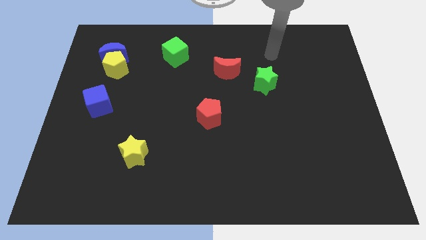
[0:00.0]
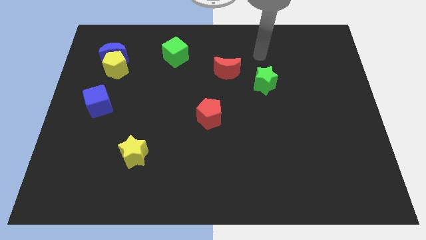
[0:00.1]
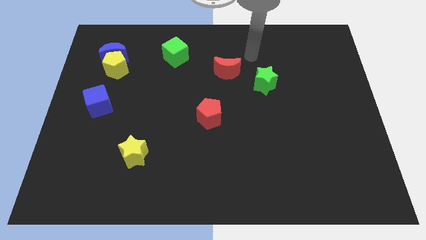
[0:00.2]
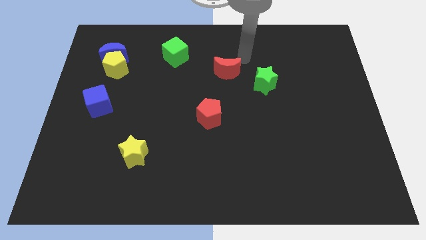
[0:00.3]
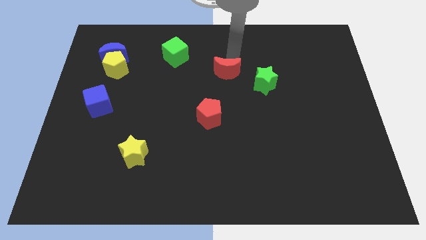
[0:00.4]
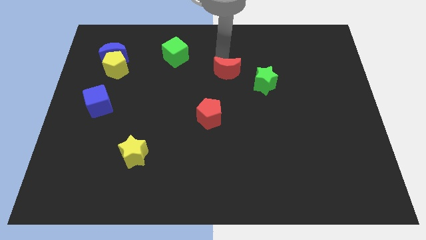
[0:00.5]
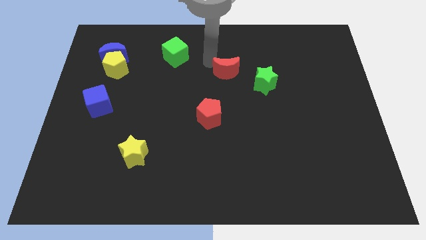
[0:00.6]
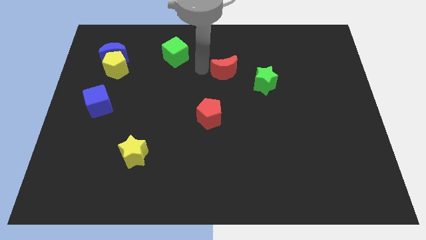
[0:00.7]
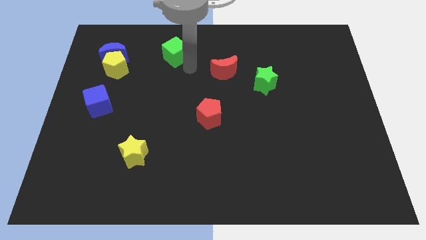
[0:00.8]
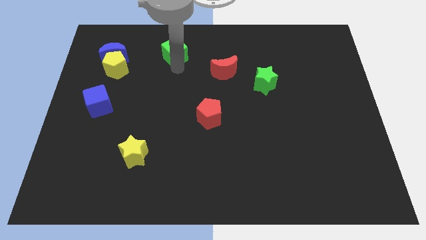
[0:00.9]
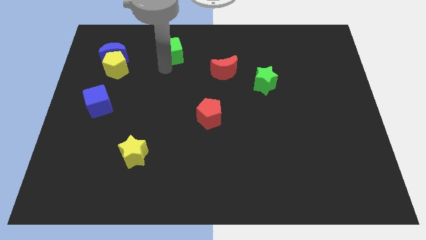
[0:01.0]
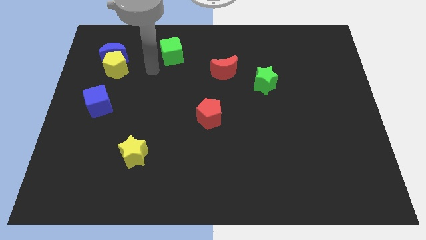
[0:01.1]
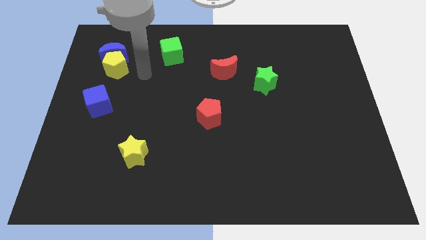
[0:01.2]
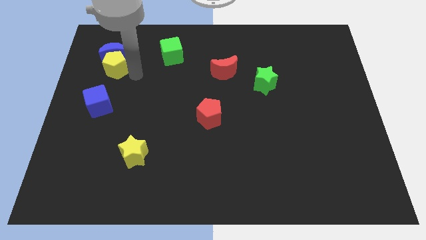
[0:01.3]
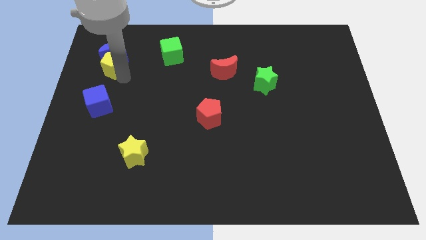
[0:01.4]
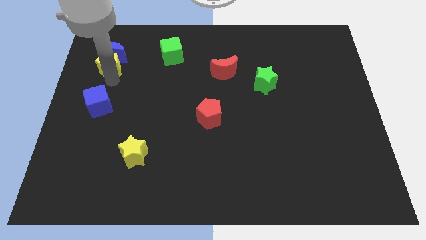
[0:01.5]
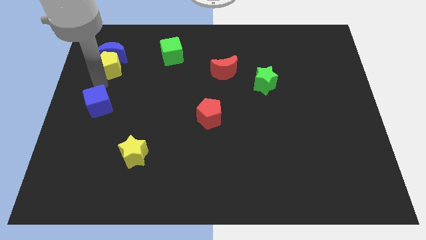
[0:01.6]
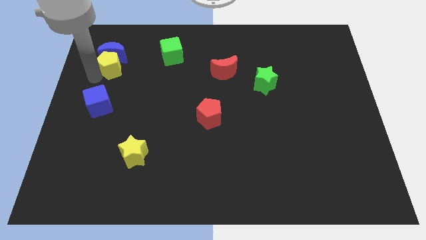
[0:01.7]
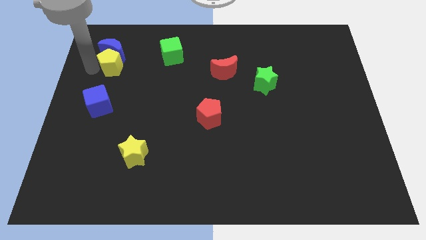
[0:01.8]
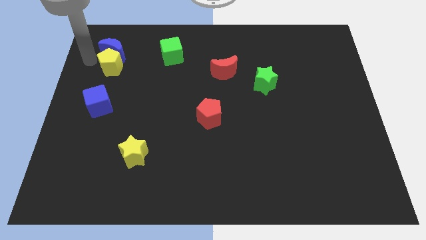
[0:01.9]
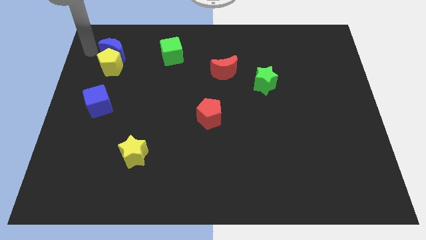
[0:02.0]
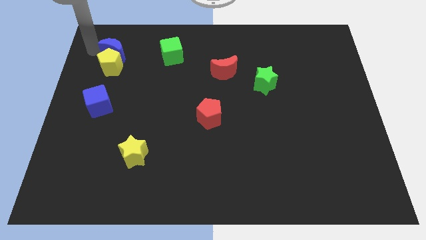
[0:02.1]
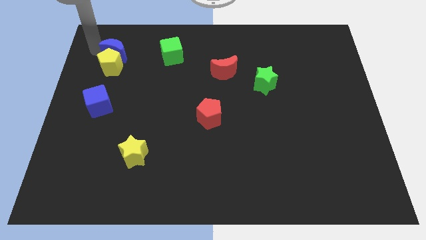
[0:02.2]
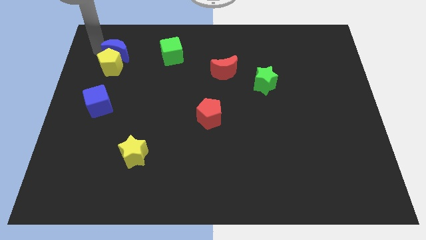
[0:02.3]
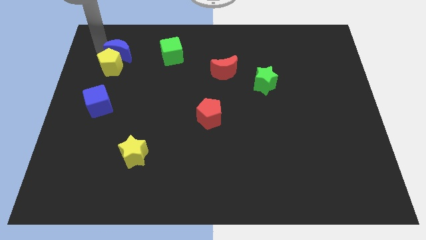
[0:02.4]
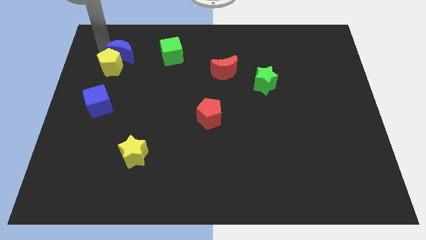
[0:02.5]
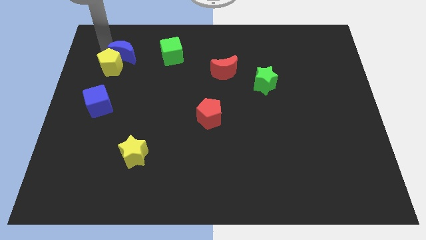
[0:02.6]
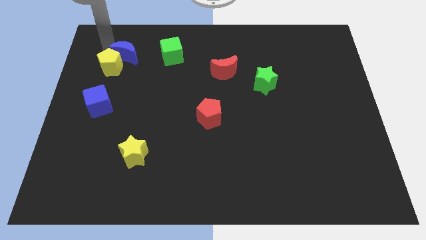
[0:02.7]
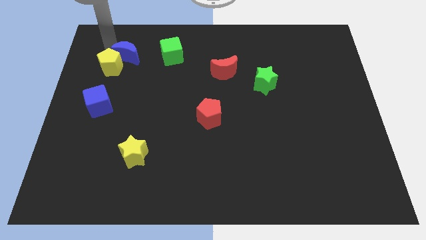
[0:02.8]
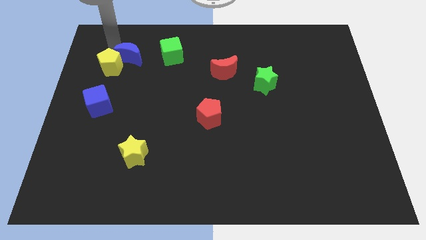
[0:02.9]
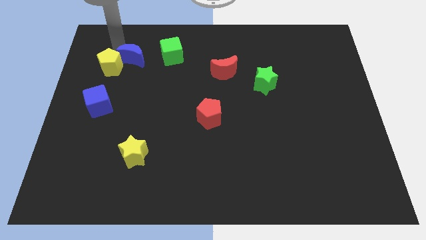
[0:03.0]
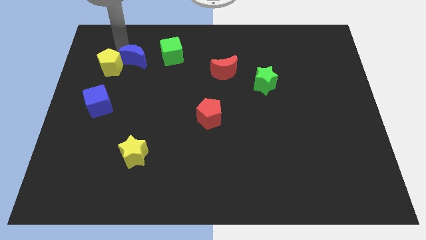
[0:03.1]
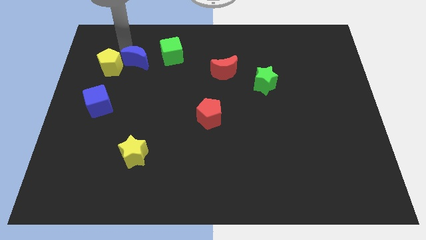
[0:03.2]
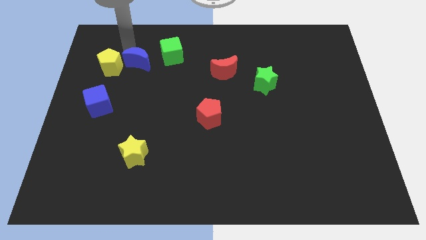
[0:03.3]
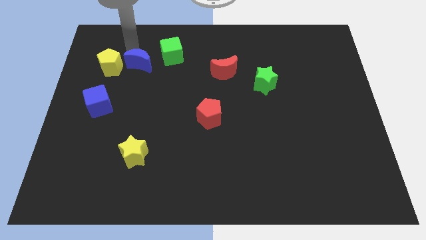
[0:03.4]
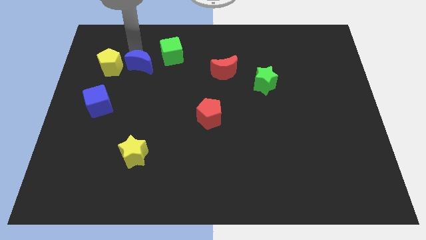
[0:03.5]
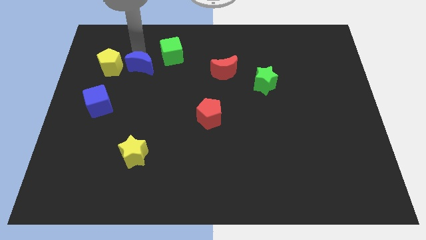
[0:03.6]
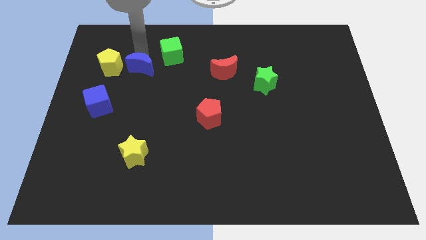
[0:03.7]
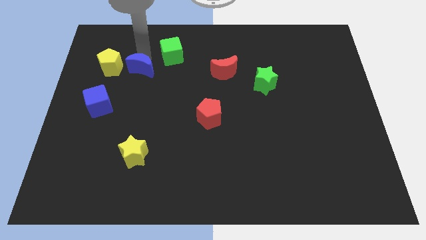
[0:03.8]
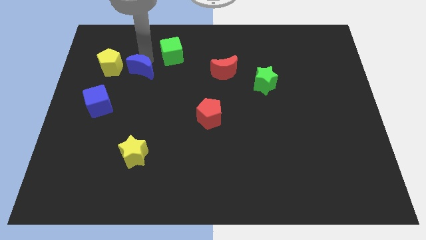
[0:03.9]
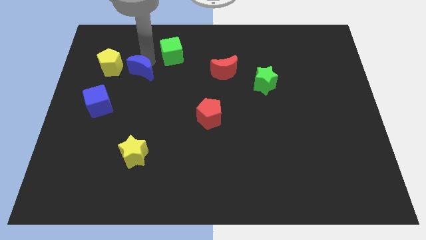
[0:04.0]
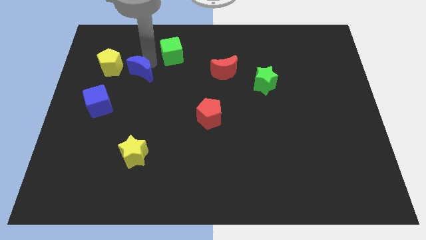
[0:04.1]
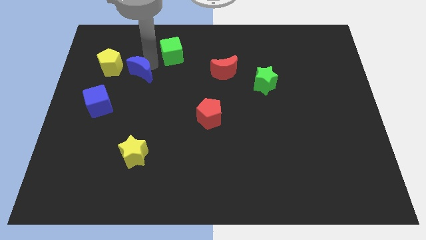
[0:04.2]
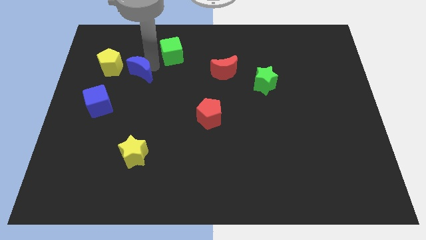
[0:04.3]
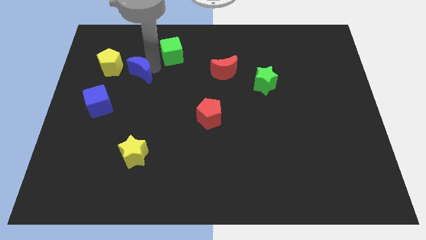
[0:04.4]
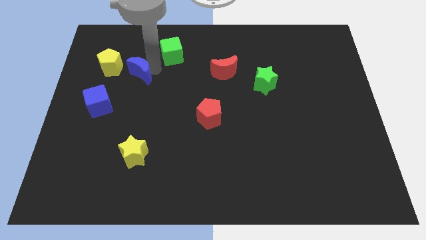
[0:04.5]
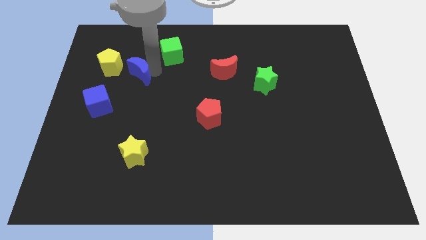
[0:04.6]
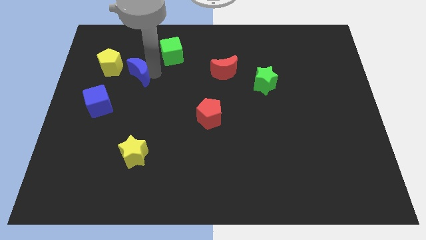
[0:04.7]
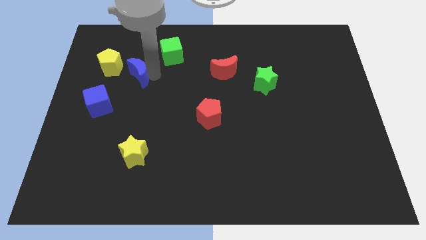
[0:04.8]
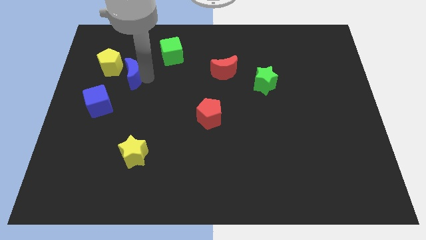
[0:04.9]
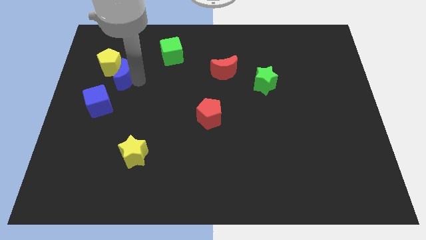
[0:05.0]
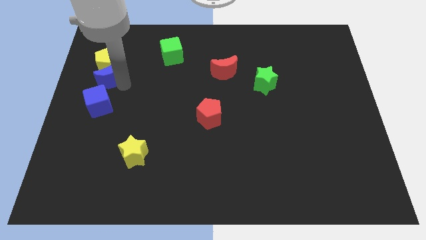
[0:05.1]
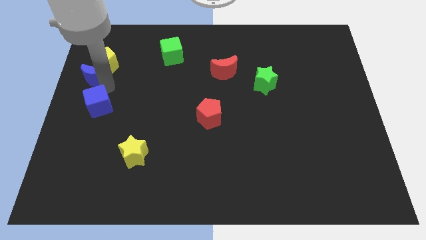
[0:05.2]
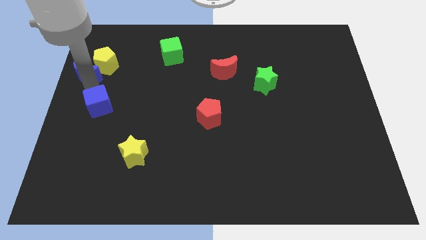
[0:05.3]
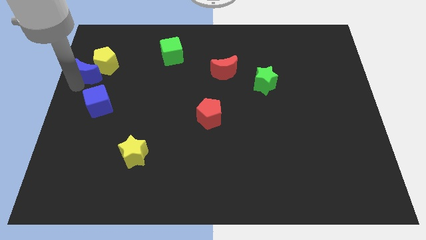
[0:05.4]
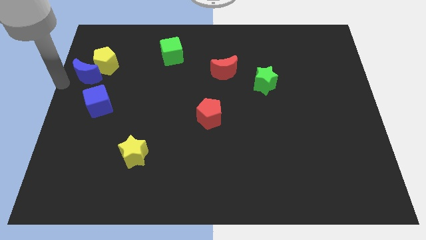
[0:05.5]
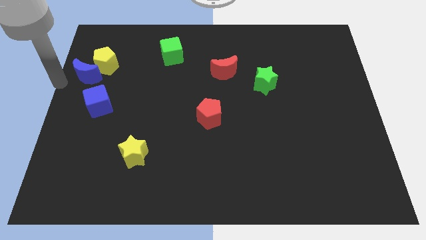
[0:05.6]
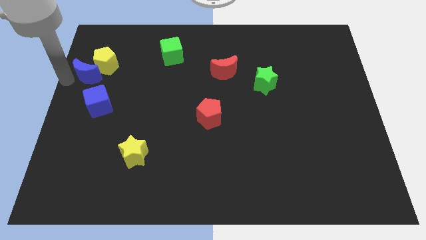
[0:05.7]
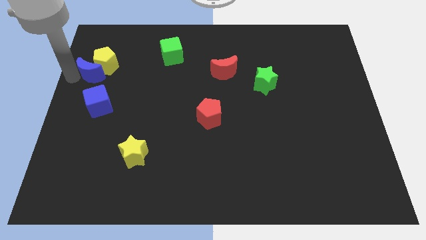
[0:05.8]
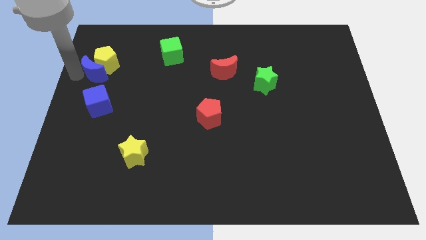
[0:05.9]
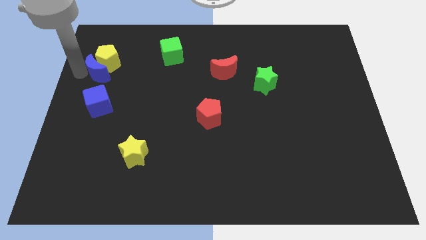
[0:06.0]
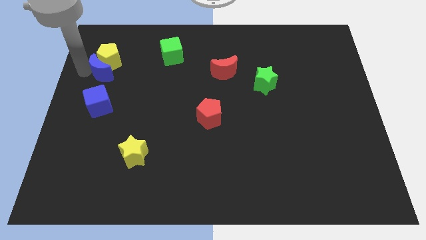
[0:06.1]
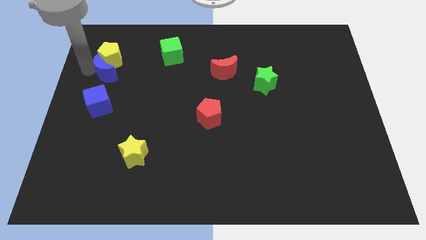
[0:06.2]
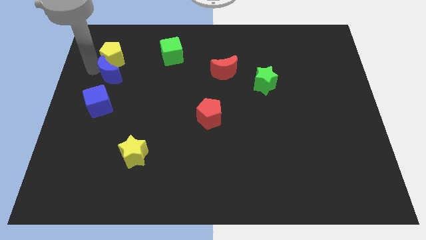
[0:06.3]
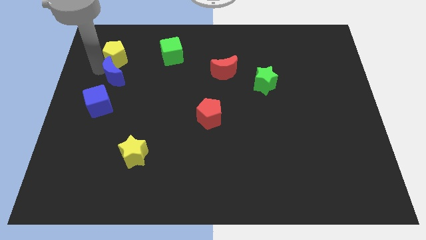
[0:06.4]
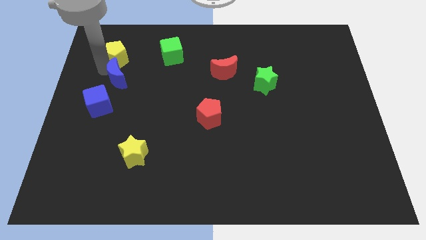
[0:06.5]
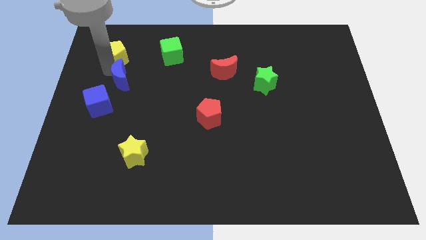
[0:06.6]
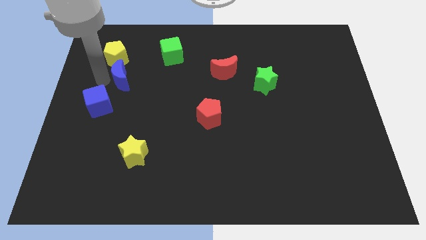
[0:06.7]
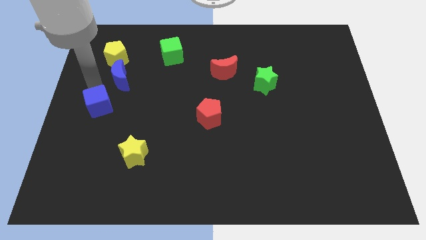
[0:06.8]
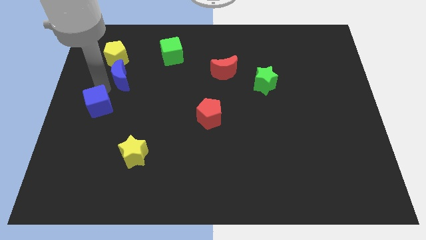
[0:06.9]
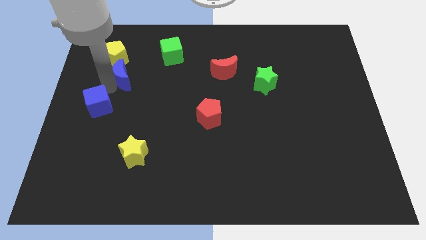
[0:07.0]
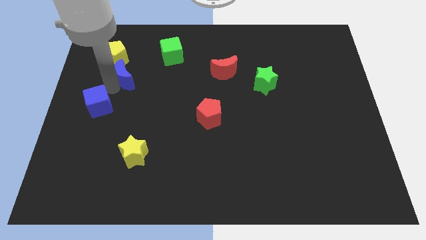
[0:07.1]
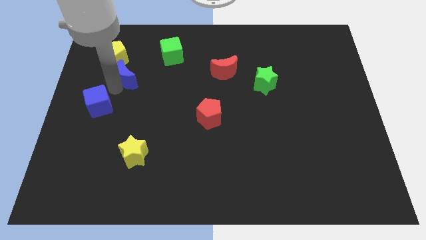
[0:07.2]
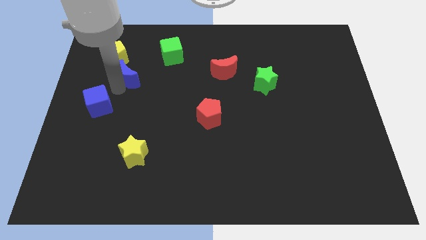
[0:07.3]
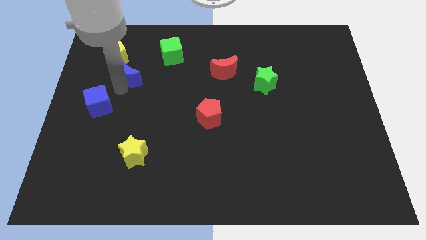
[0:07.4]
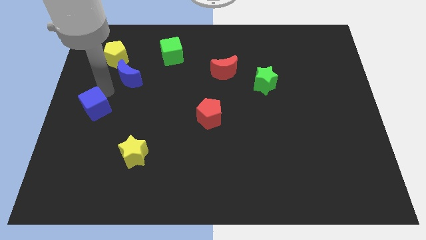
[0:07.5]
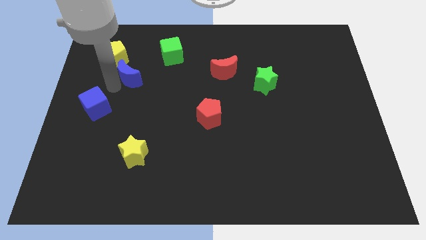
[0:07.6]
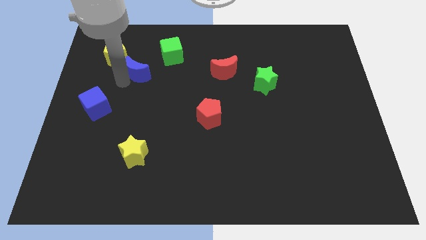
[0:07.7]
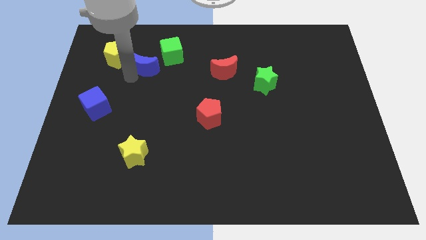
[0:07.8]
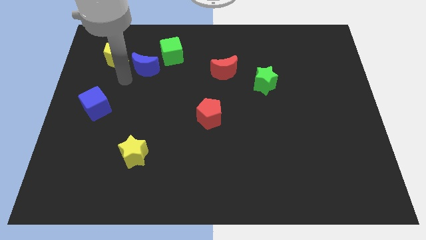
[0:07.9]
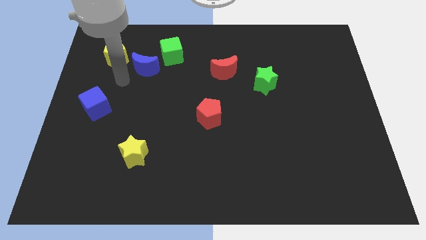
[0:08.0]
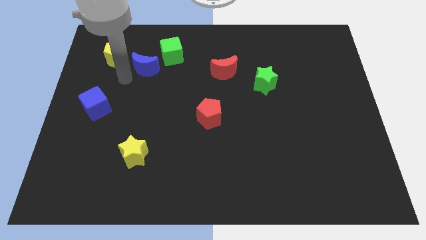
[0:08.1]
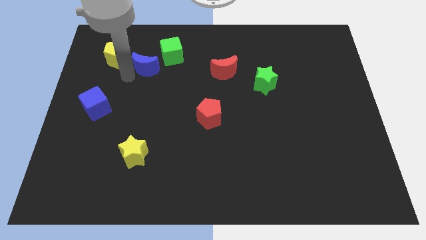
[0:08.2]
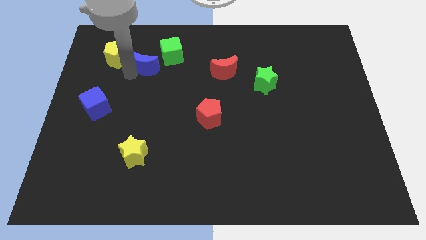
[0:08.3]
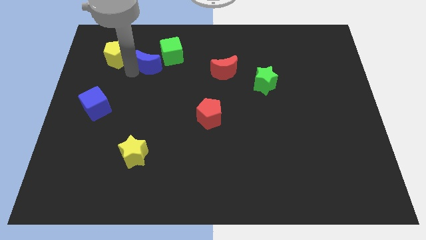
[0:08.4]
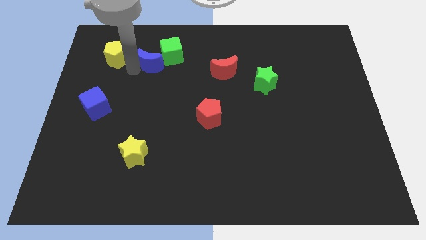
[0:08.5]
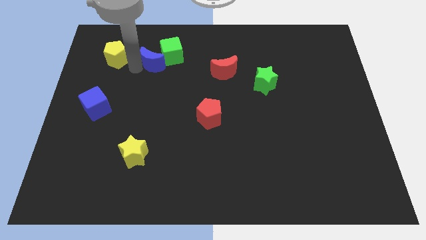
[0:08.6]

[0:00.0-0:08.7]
put the blue moon to the green cube
